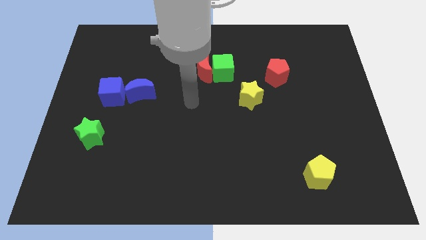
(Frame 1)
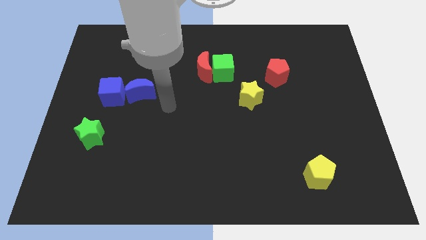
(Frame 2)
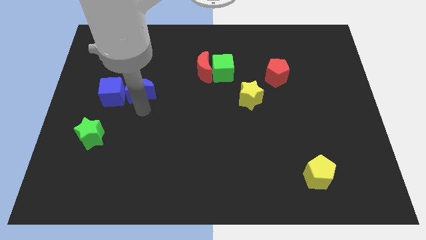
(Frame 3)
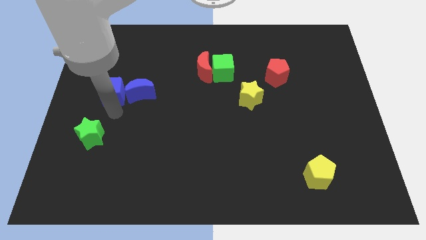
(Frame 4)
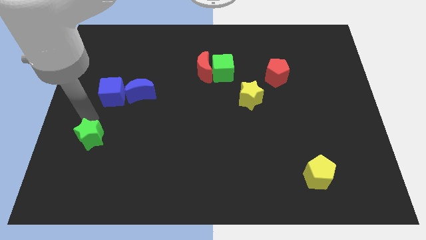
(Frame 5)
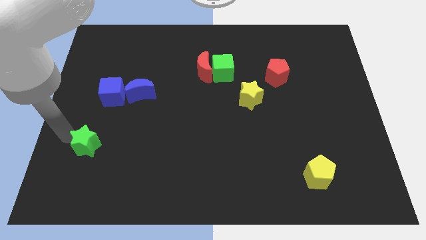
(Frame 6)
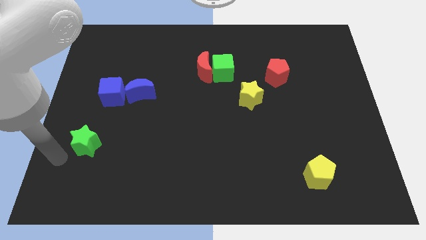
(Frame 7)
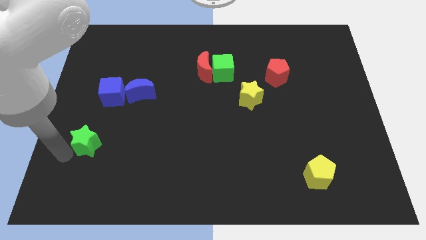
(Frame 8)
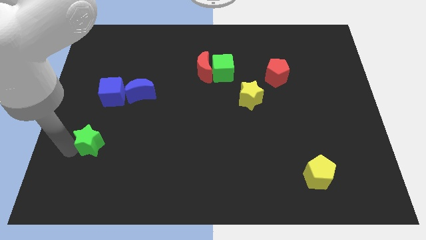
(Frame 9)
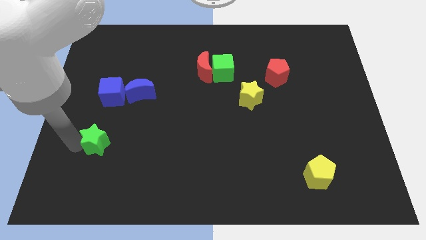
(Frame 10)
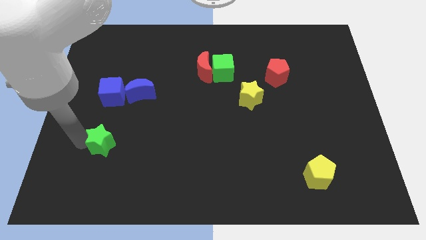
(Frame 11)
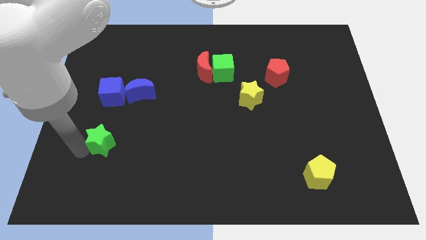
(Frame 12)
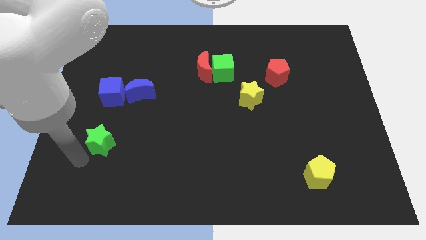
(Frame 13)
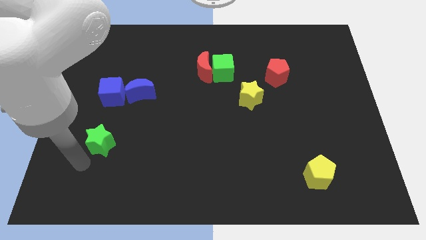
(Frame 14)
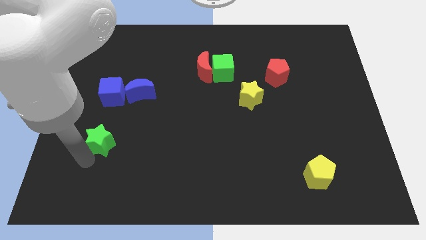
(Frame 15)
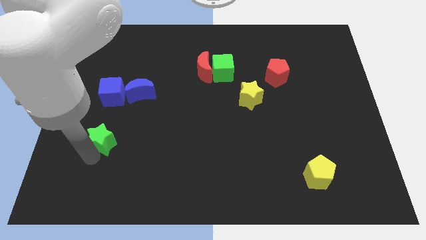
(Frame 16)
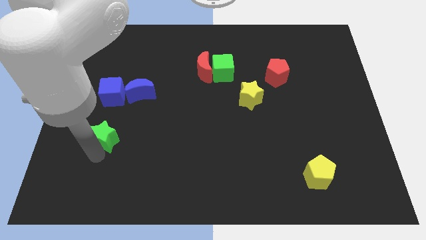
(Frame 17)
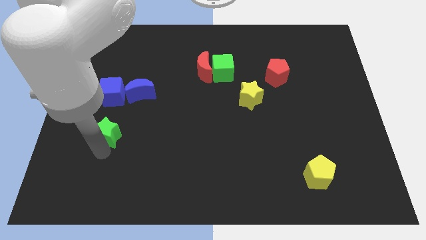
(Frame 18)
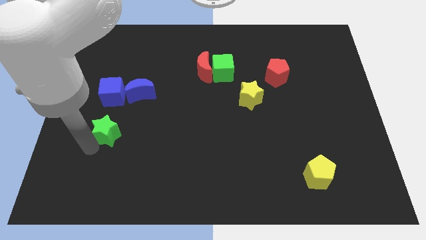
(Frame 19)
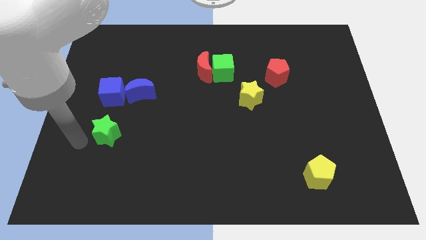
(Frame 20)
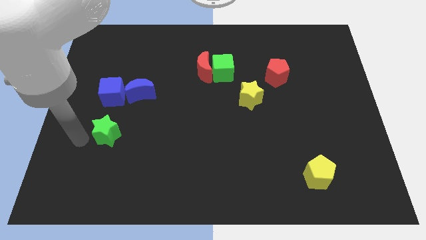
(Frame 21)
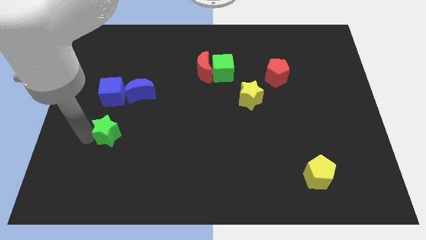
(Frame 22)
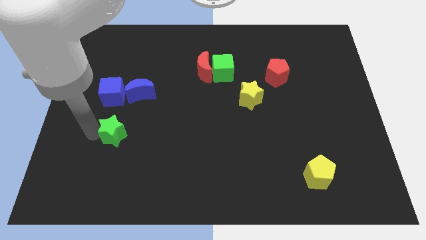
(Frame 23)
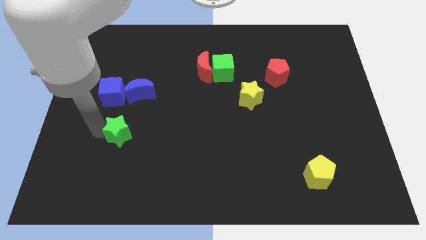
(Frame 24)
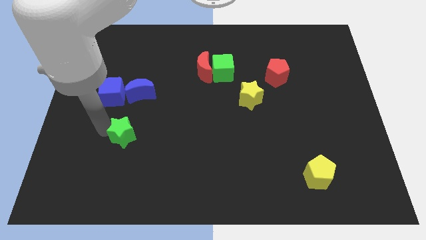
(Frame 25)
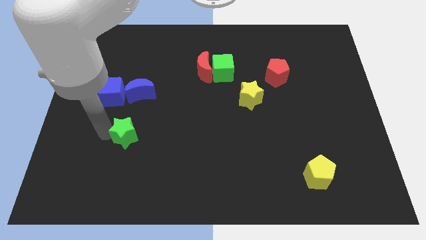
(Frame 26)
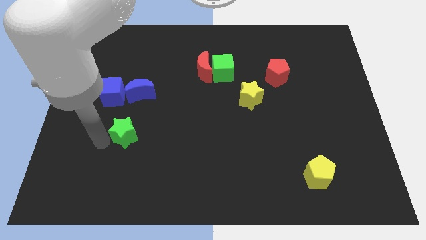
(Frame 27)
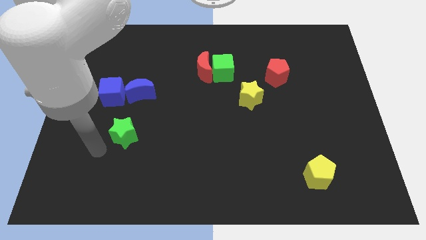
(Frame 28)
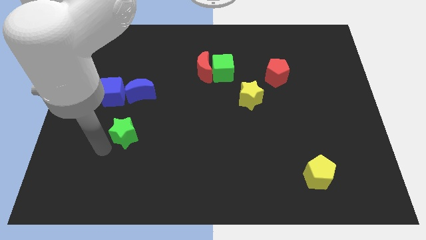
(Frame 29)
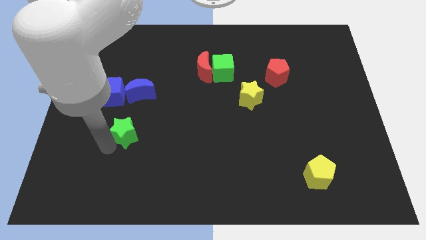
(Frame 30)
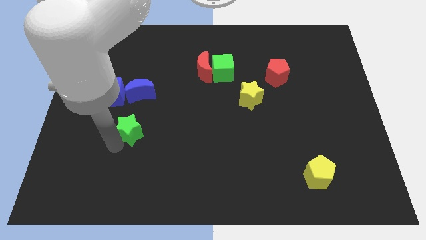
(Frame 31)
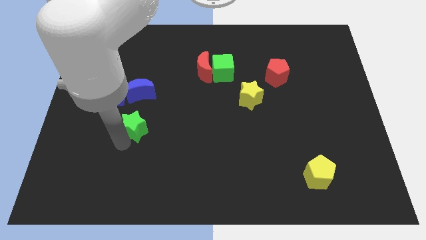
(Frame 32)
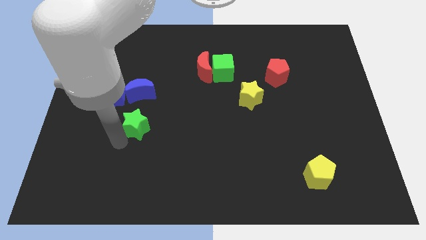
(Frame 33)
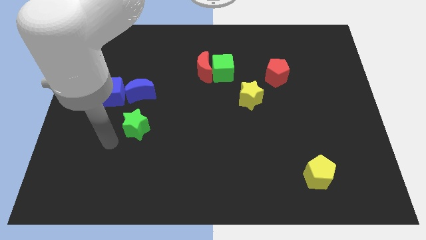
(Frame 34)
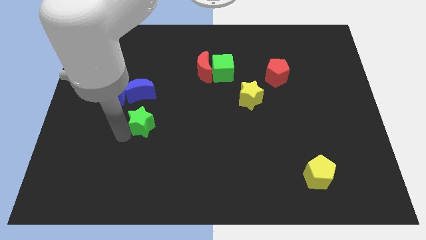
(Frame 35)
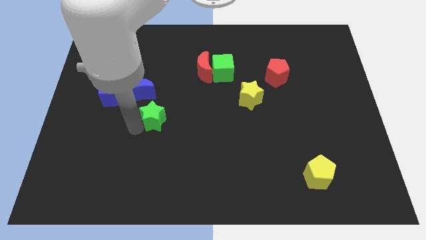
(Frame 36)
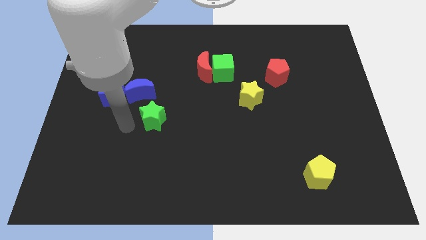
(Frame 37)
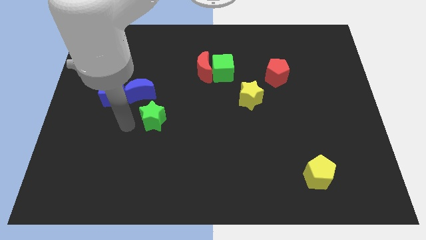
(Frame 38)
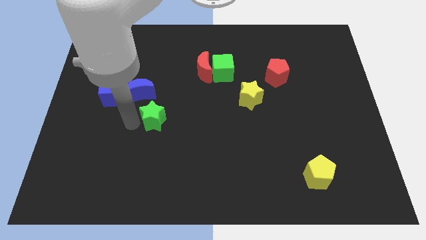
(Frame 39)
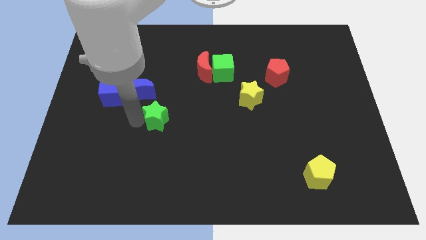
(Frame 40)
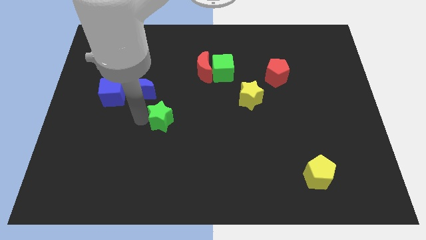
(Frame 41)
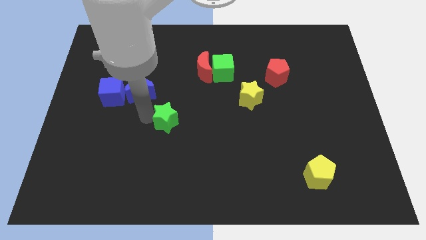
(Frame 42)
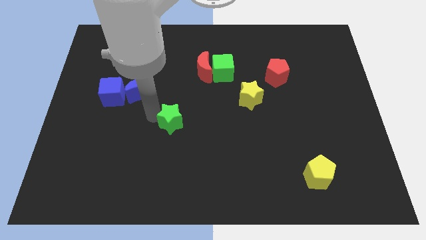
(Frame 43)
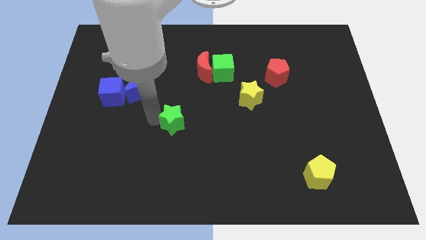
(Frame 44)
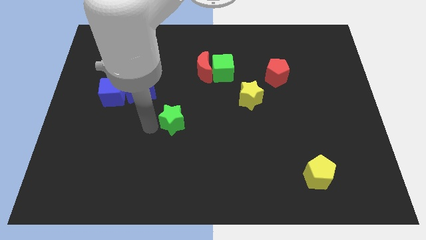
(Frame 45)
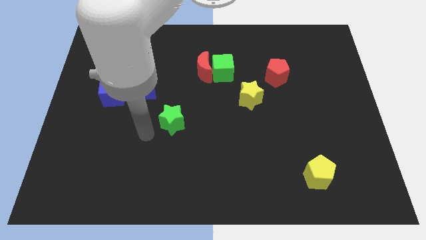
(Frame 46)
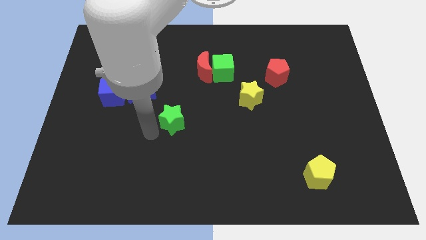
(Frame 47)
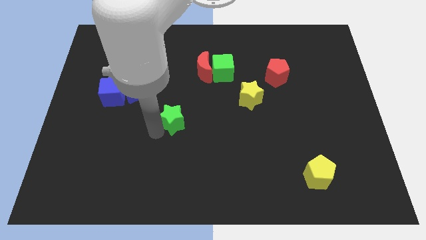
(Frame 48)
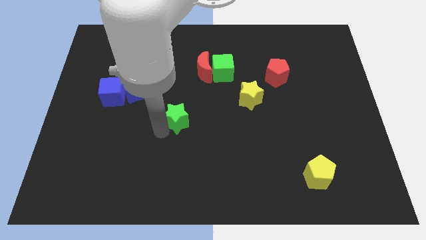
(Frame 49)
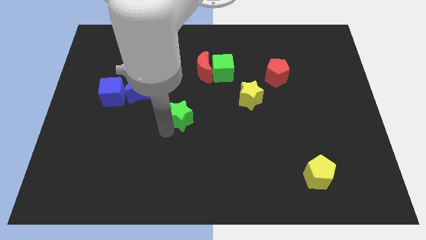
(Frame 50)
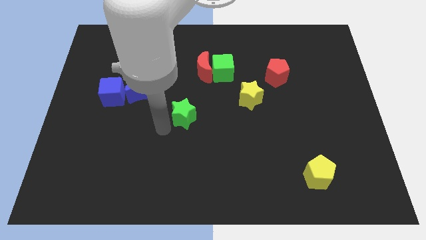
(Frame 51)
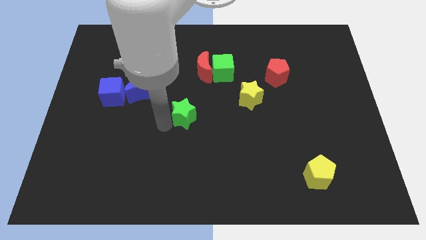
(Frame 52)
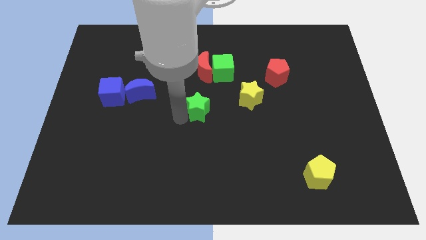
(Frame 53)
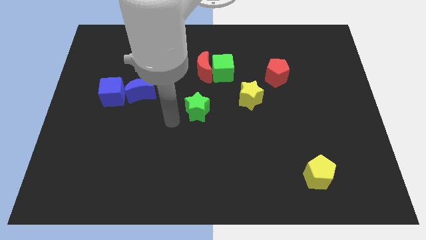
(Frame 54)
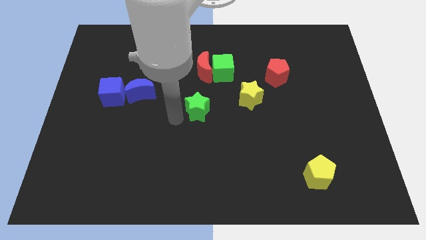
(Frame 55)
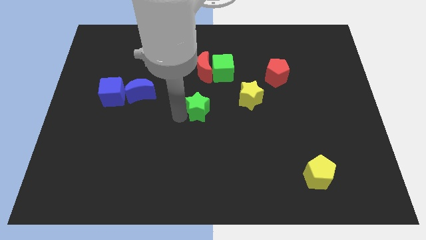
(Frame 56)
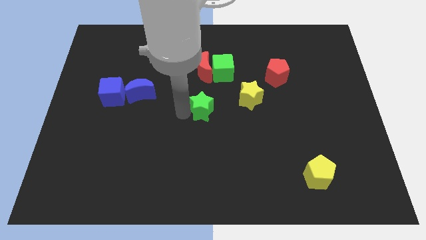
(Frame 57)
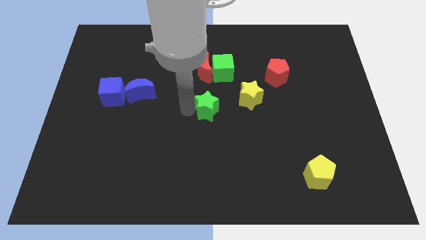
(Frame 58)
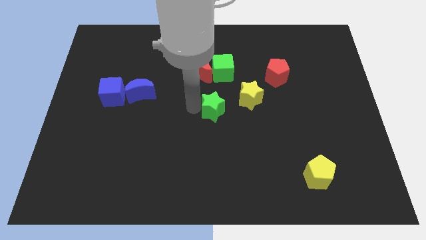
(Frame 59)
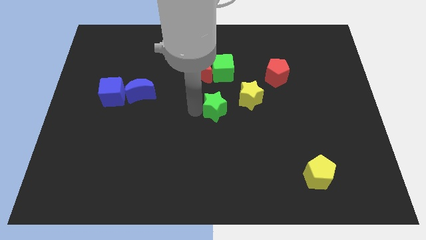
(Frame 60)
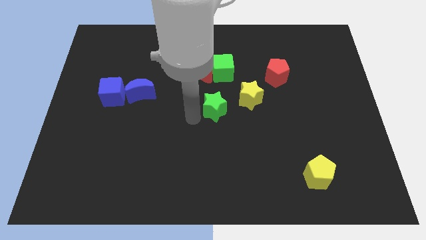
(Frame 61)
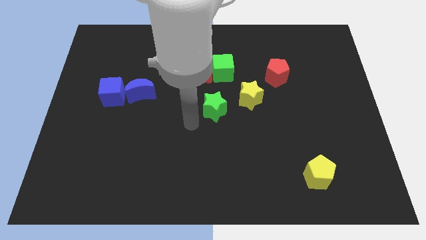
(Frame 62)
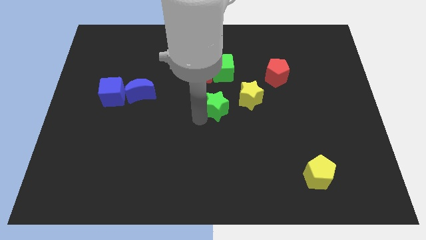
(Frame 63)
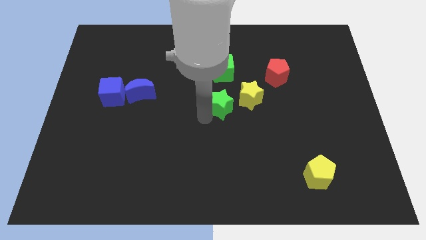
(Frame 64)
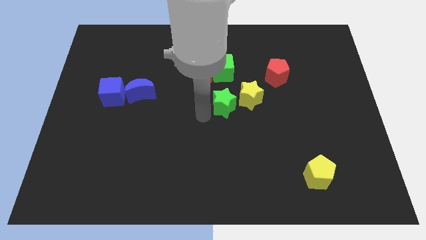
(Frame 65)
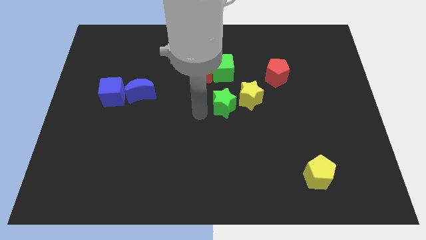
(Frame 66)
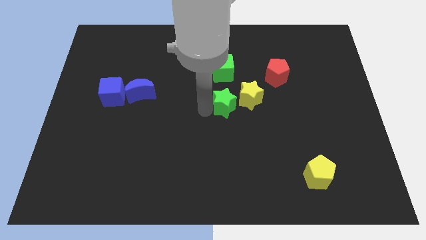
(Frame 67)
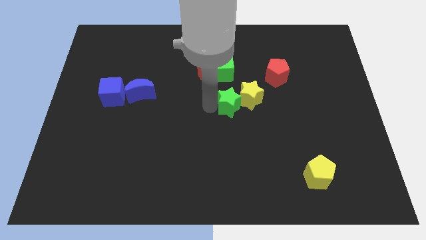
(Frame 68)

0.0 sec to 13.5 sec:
put the green star to the yellow star

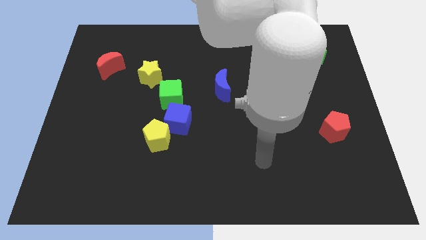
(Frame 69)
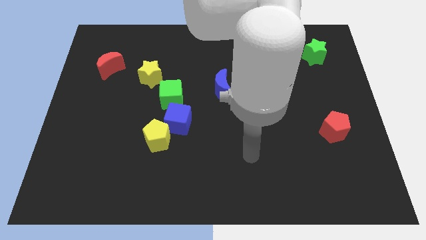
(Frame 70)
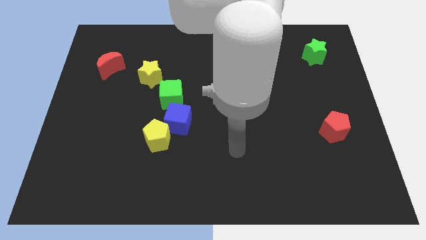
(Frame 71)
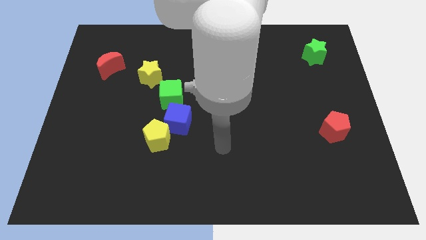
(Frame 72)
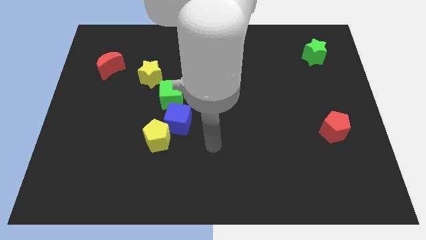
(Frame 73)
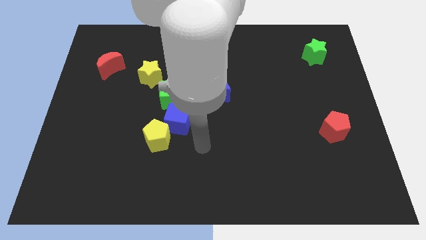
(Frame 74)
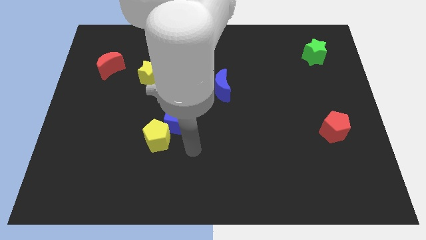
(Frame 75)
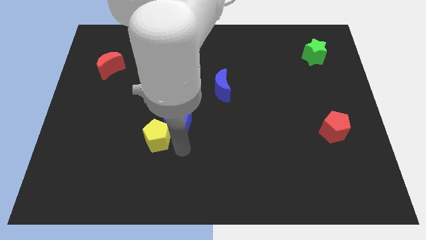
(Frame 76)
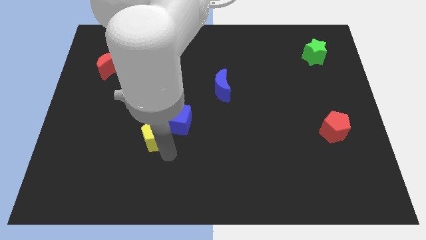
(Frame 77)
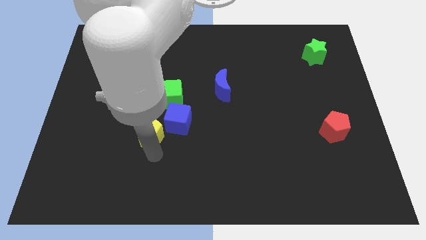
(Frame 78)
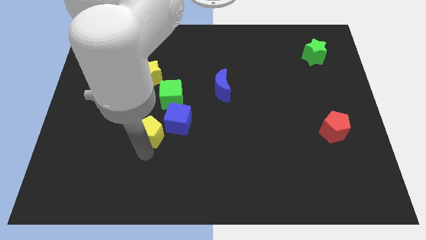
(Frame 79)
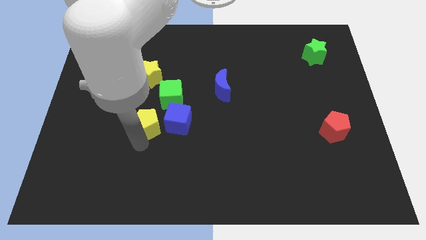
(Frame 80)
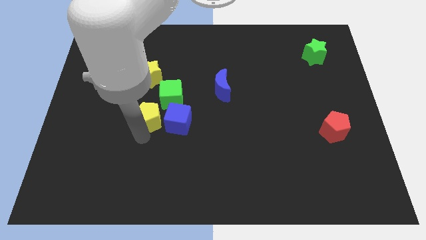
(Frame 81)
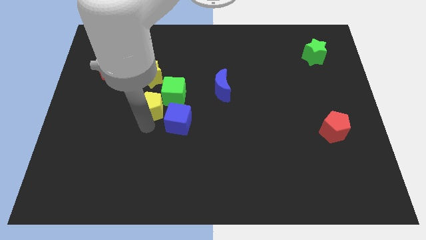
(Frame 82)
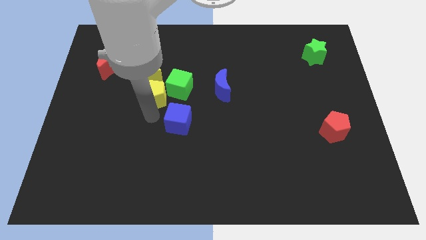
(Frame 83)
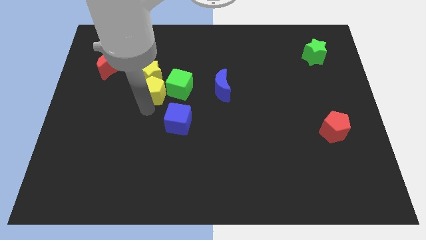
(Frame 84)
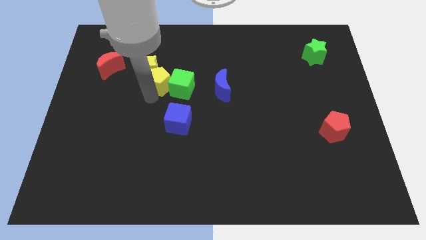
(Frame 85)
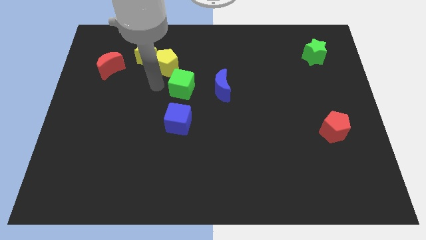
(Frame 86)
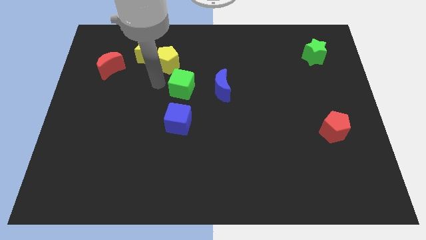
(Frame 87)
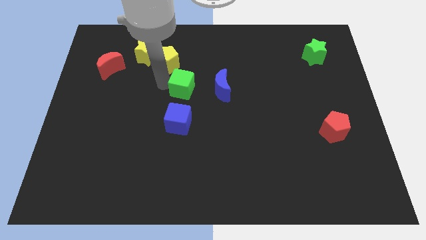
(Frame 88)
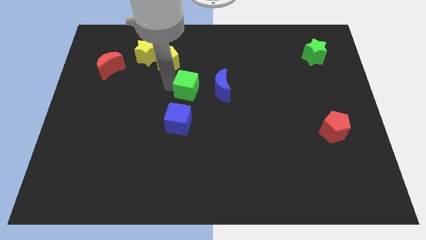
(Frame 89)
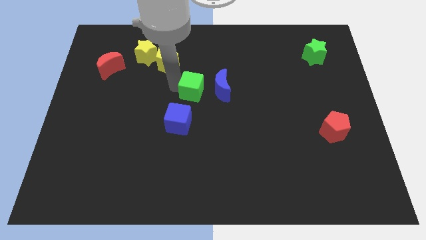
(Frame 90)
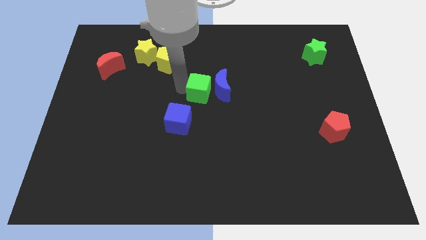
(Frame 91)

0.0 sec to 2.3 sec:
slide the green cube to the blue moon
